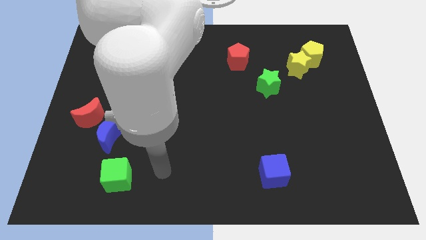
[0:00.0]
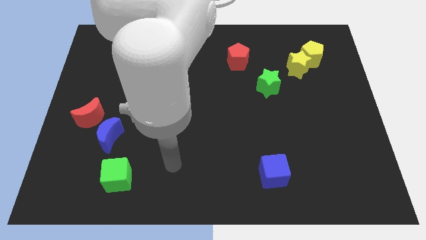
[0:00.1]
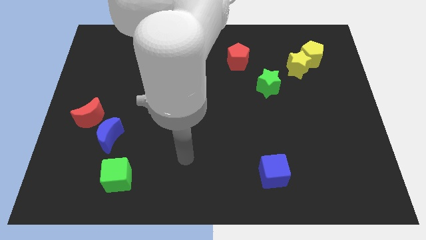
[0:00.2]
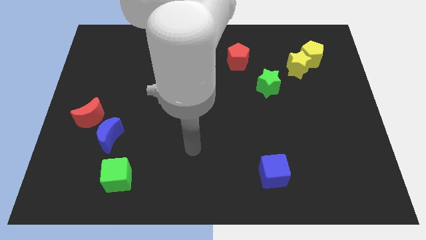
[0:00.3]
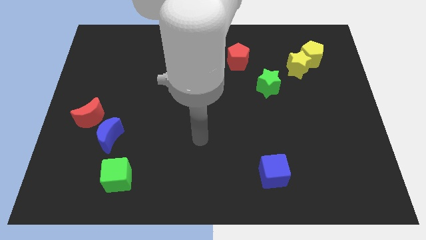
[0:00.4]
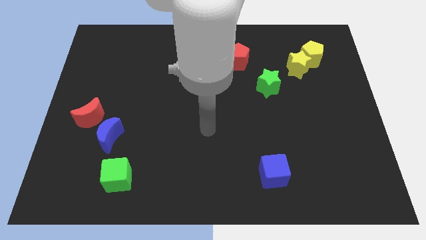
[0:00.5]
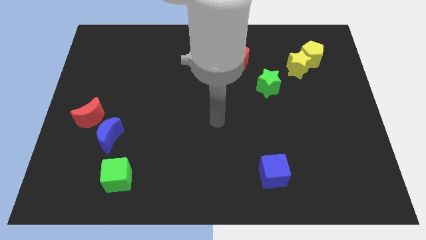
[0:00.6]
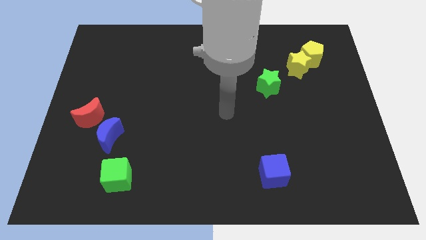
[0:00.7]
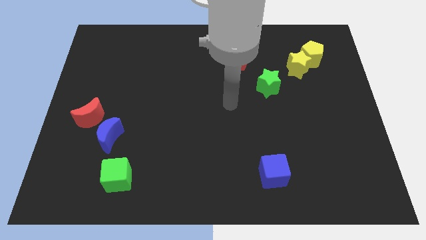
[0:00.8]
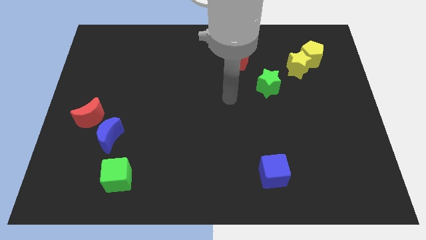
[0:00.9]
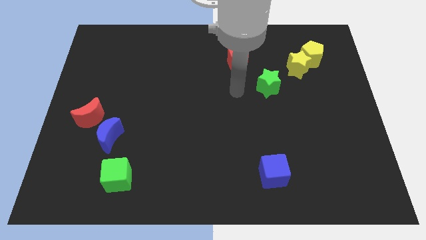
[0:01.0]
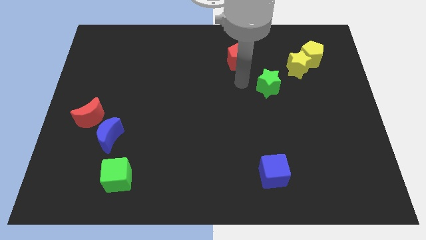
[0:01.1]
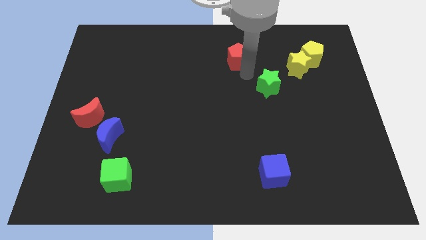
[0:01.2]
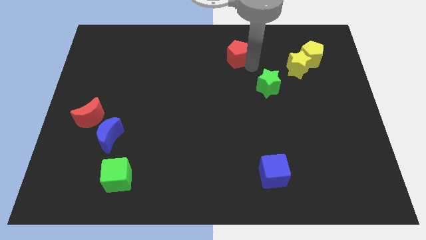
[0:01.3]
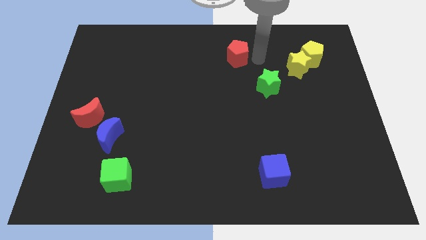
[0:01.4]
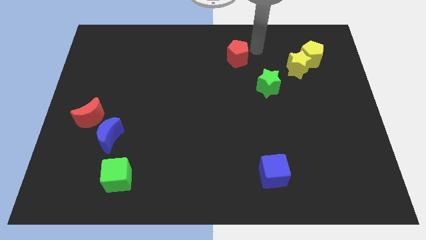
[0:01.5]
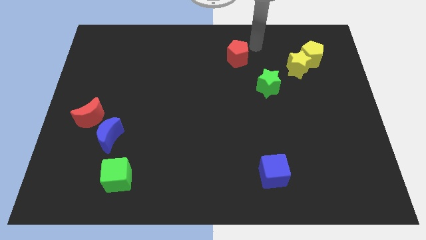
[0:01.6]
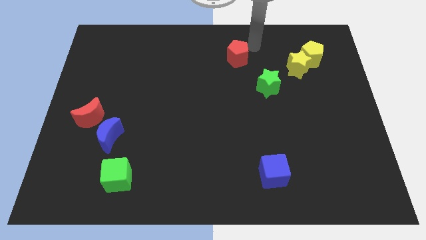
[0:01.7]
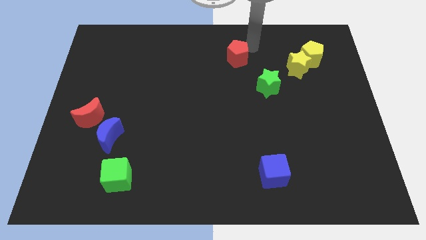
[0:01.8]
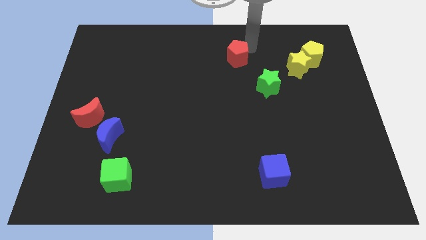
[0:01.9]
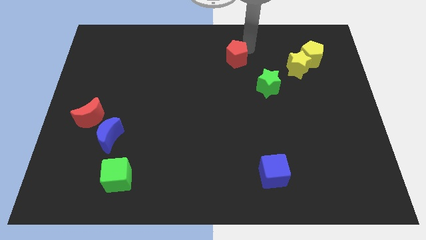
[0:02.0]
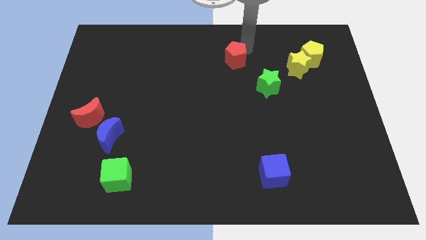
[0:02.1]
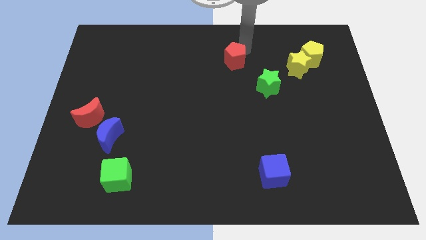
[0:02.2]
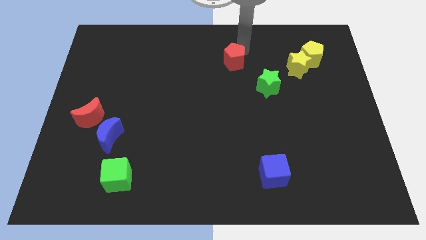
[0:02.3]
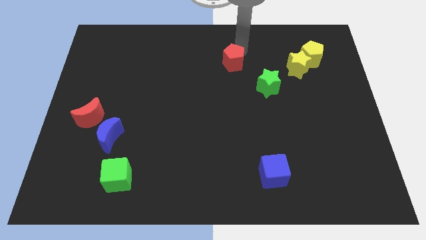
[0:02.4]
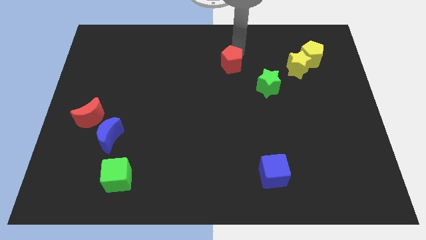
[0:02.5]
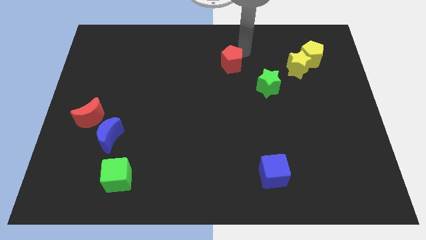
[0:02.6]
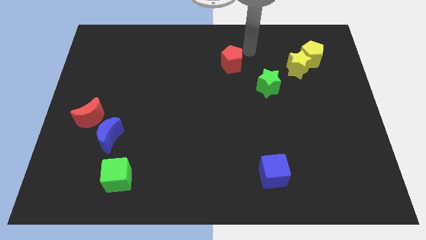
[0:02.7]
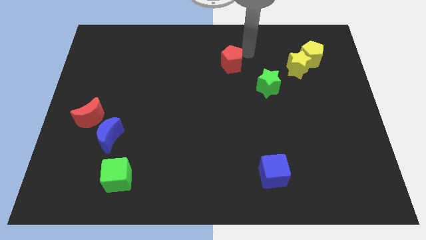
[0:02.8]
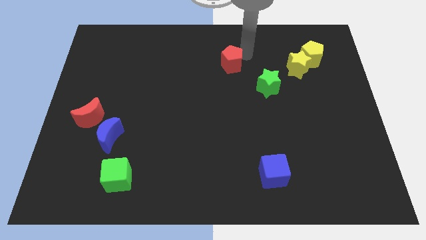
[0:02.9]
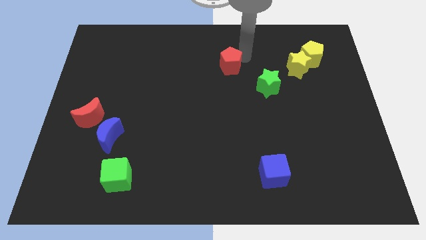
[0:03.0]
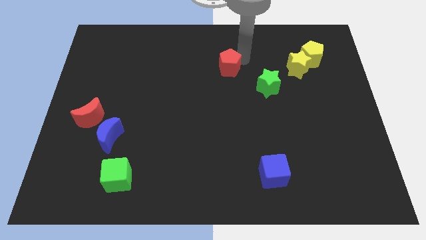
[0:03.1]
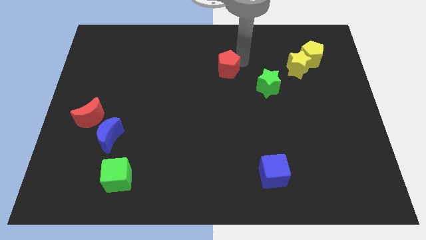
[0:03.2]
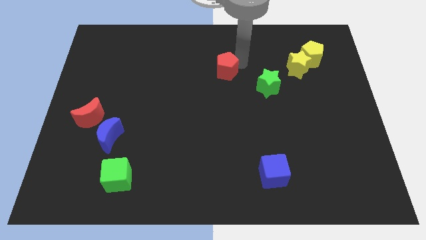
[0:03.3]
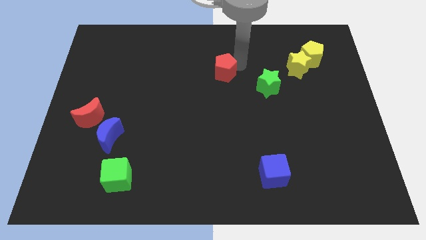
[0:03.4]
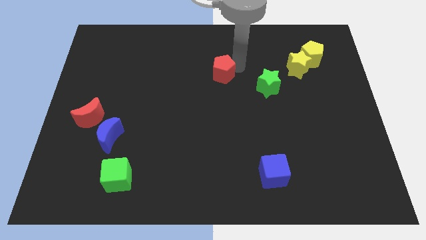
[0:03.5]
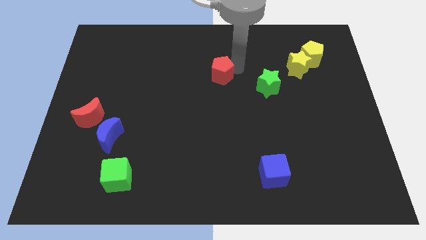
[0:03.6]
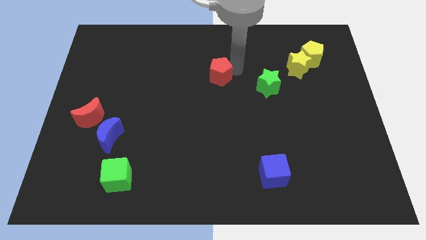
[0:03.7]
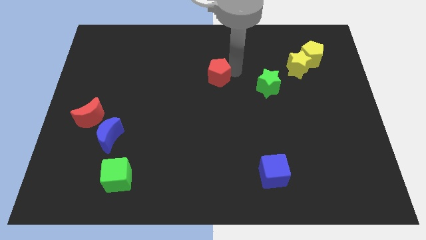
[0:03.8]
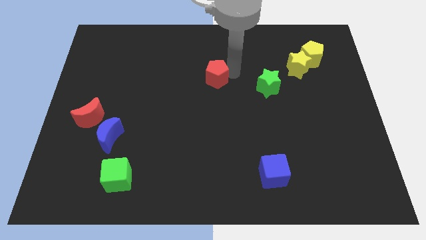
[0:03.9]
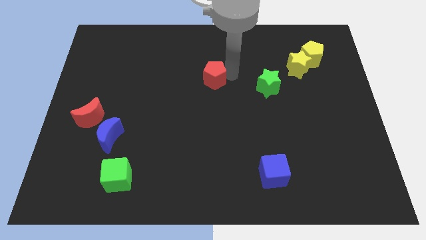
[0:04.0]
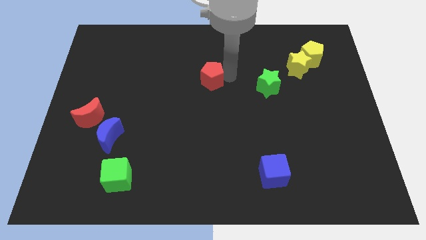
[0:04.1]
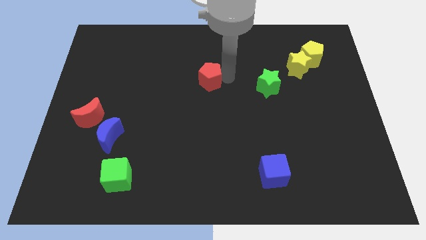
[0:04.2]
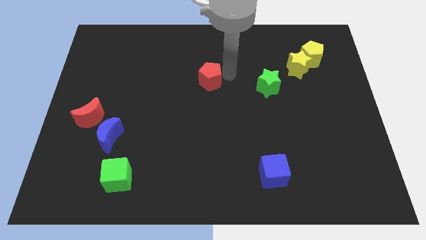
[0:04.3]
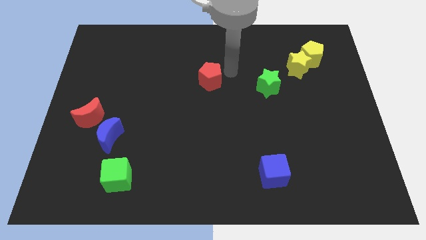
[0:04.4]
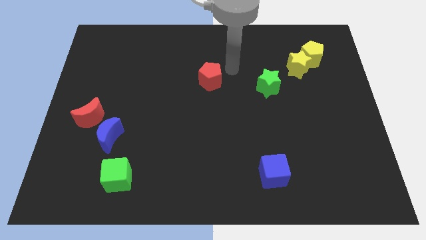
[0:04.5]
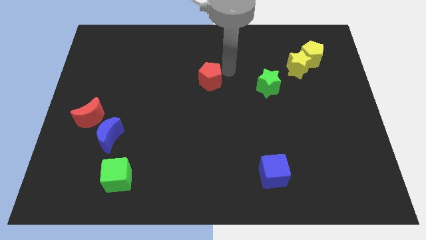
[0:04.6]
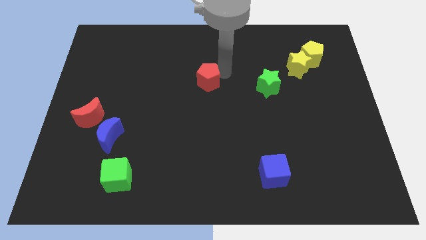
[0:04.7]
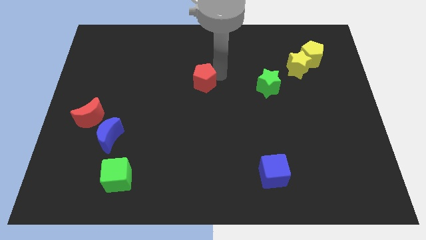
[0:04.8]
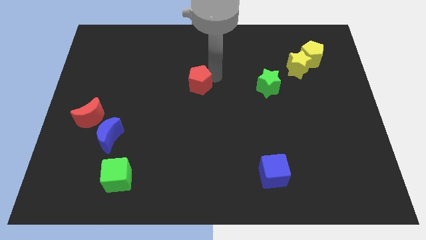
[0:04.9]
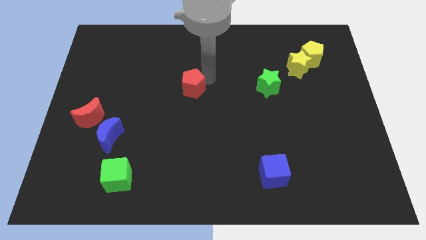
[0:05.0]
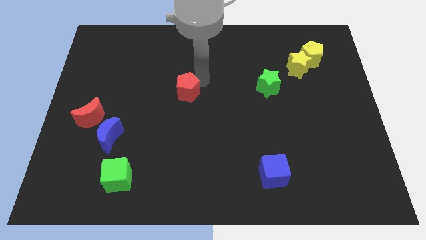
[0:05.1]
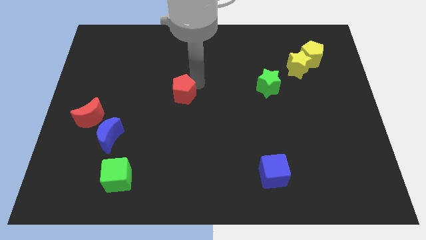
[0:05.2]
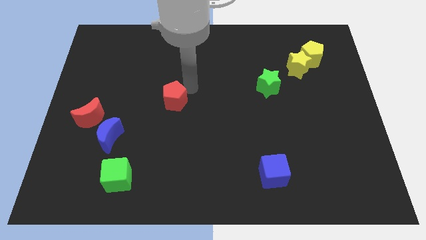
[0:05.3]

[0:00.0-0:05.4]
move the red pentagon diagonally down and left

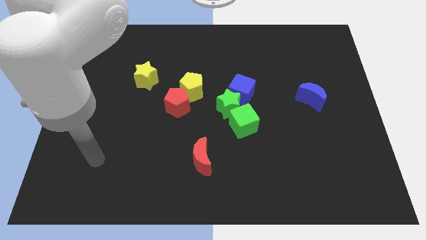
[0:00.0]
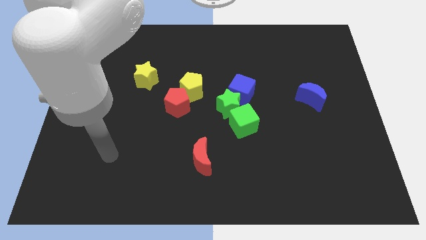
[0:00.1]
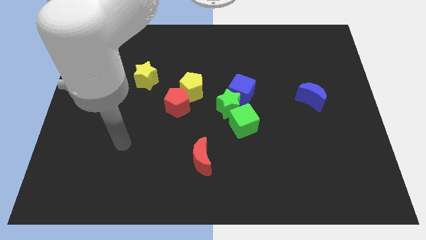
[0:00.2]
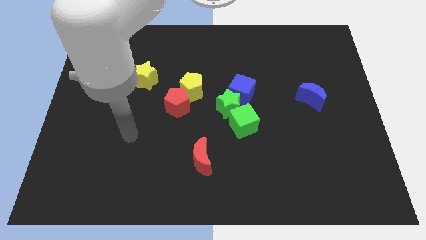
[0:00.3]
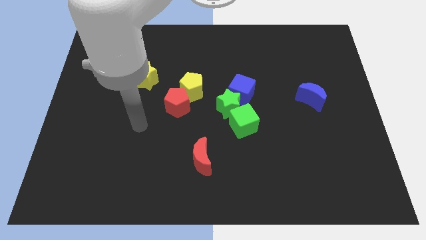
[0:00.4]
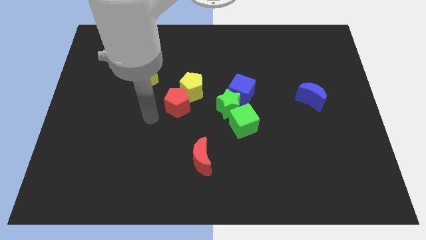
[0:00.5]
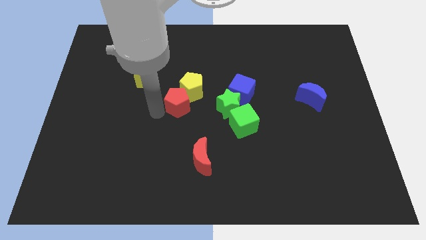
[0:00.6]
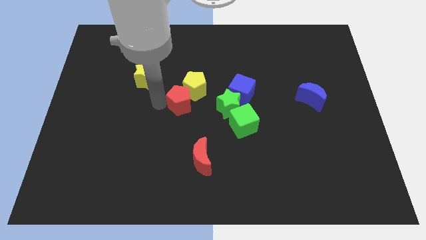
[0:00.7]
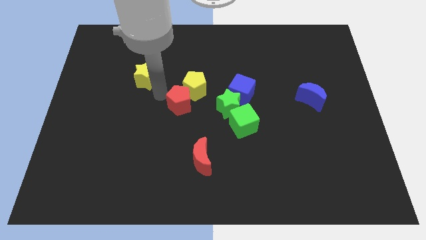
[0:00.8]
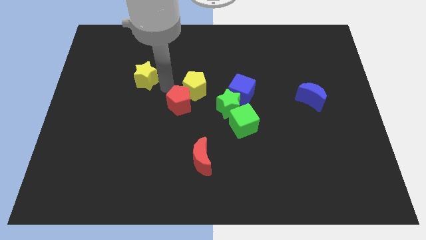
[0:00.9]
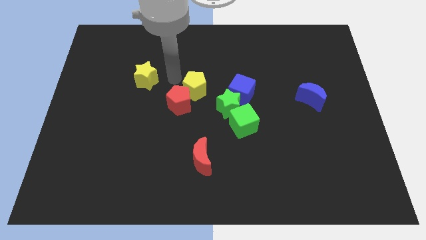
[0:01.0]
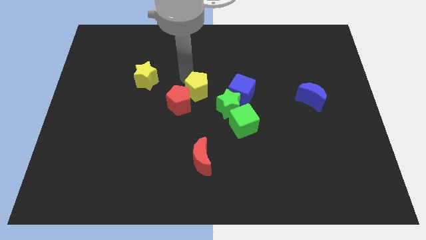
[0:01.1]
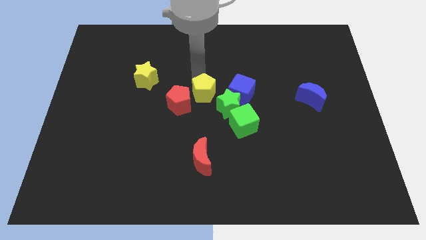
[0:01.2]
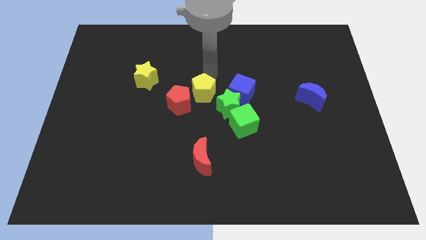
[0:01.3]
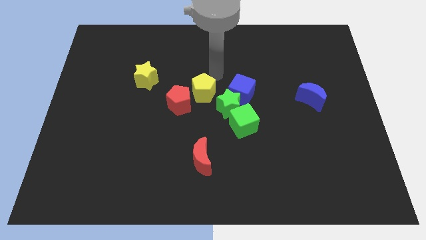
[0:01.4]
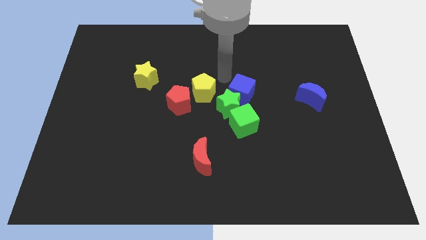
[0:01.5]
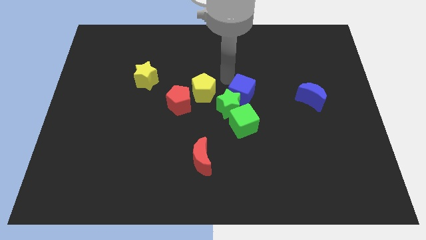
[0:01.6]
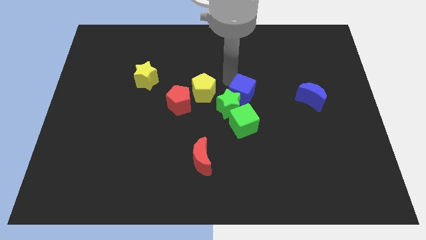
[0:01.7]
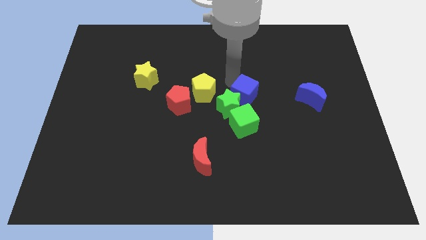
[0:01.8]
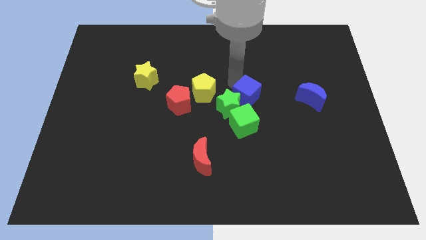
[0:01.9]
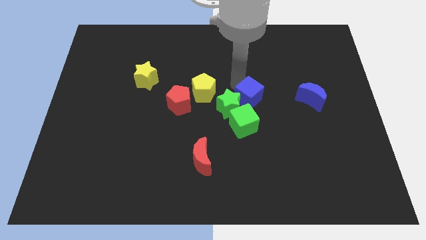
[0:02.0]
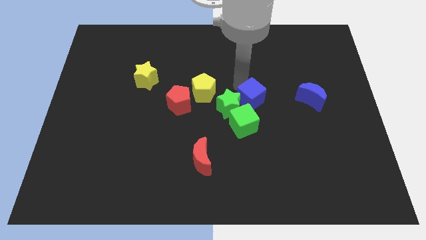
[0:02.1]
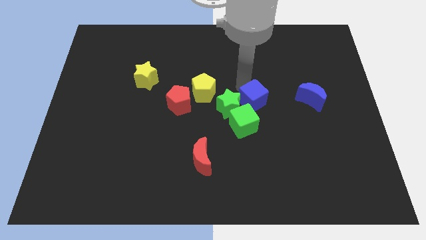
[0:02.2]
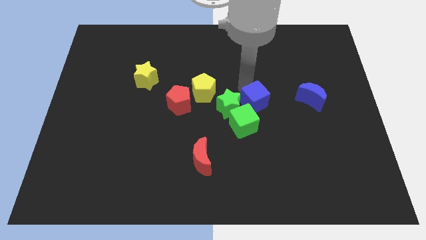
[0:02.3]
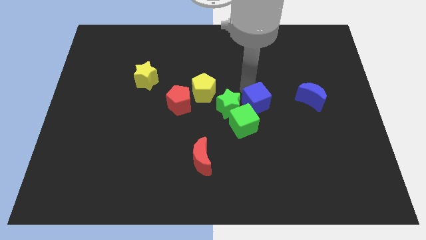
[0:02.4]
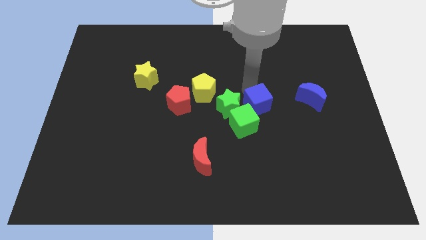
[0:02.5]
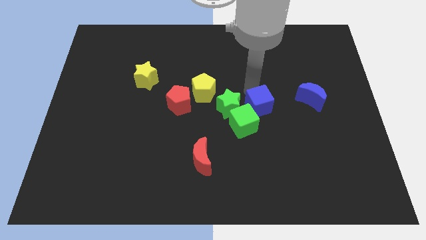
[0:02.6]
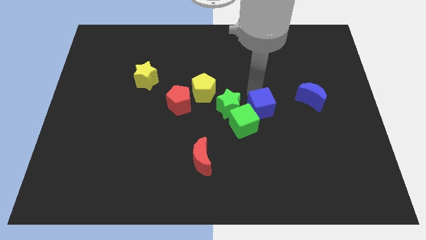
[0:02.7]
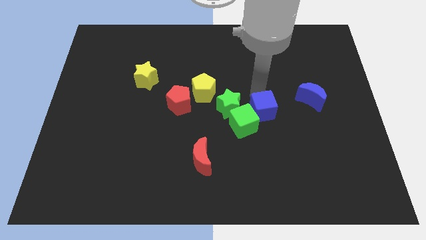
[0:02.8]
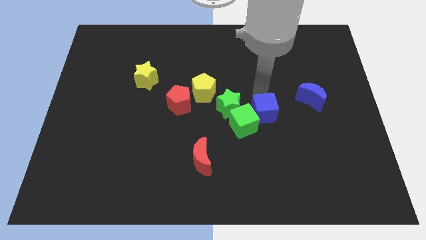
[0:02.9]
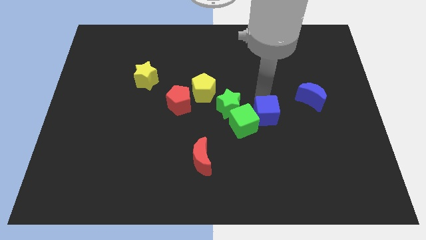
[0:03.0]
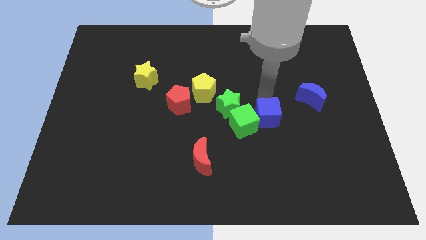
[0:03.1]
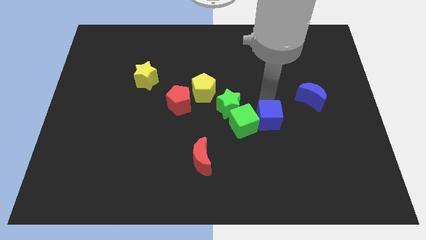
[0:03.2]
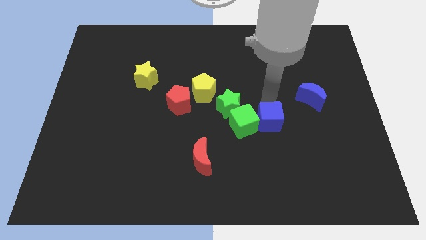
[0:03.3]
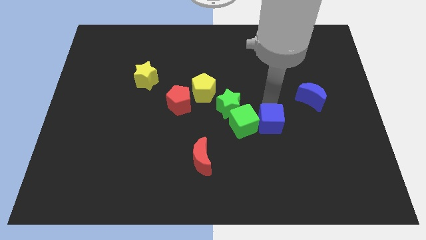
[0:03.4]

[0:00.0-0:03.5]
slightly move the blue cube down
